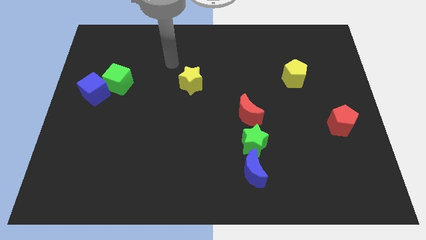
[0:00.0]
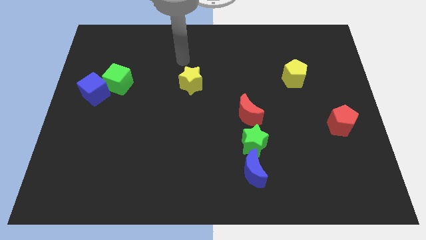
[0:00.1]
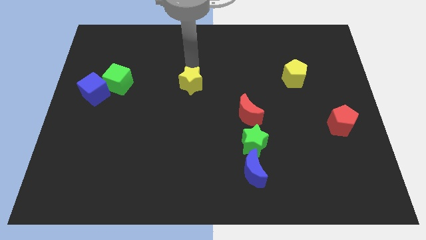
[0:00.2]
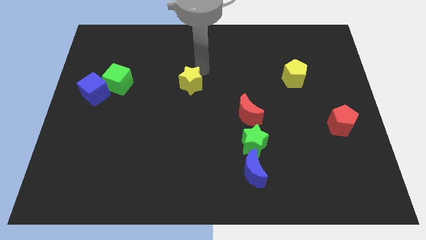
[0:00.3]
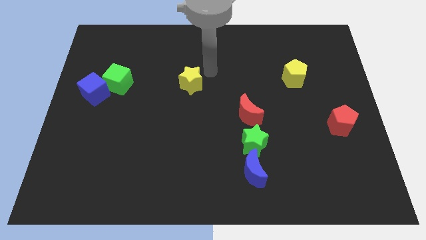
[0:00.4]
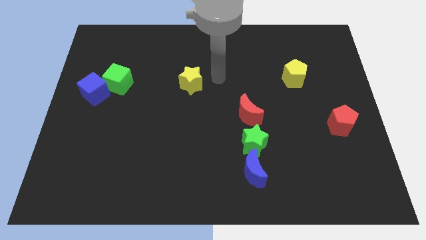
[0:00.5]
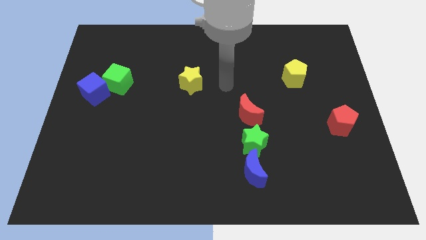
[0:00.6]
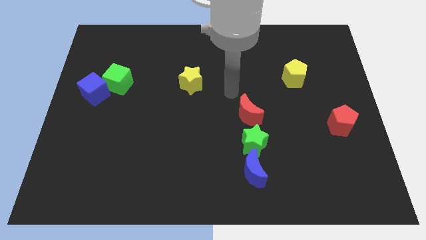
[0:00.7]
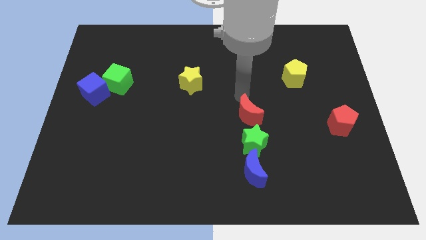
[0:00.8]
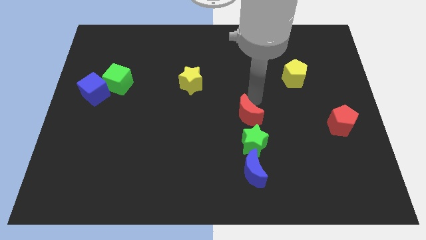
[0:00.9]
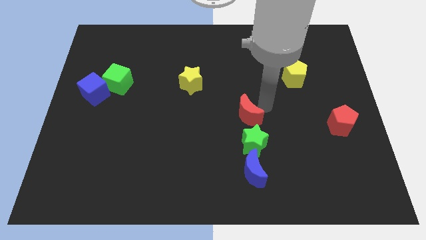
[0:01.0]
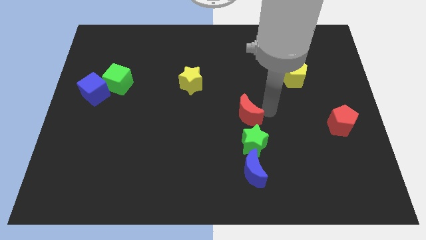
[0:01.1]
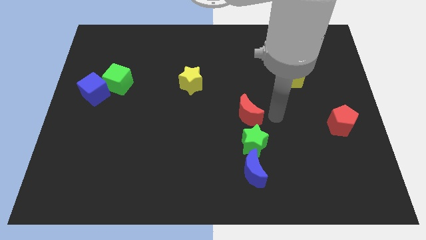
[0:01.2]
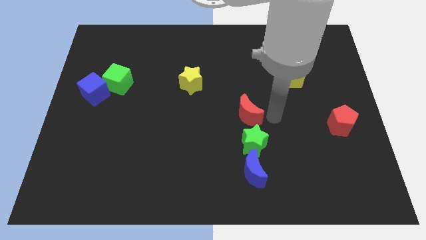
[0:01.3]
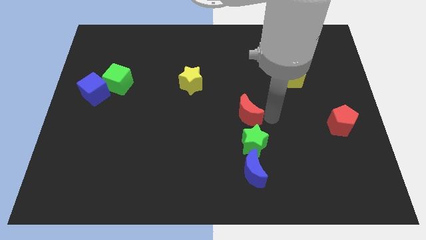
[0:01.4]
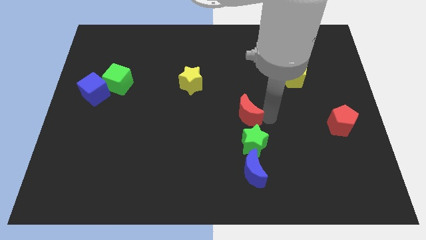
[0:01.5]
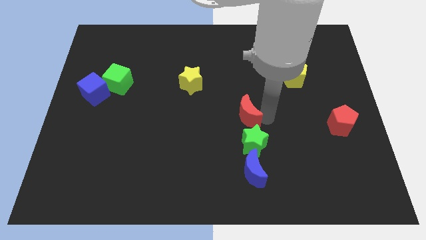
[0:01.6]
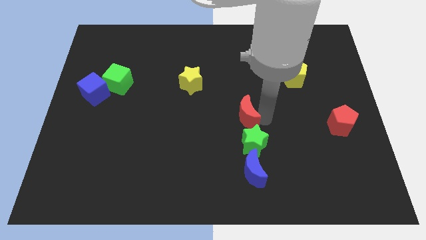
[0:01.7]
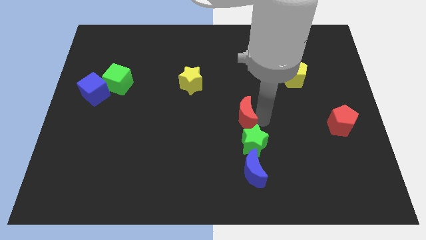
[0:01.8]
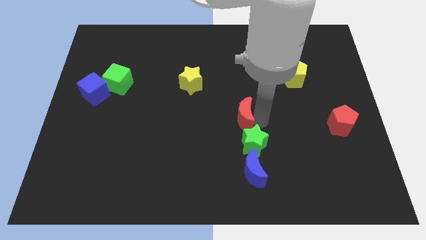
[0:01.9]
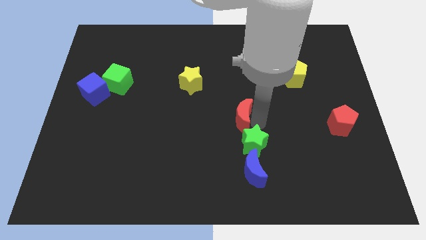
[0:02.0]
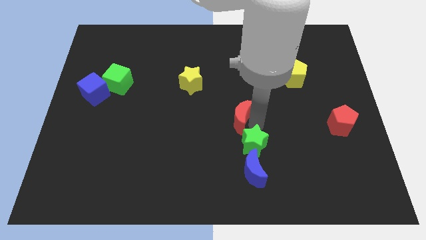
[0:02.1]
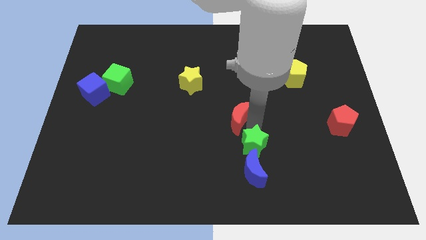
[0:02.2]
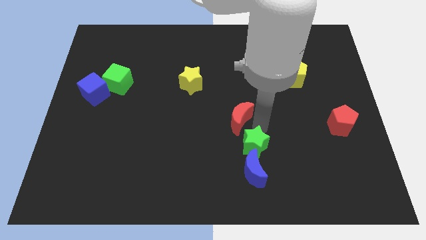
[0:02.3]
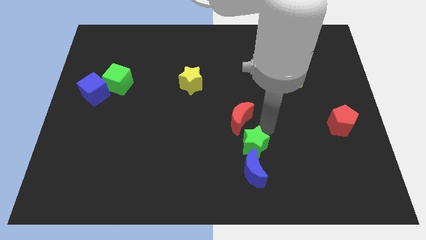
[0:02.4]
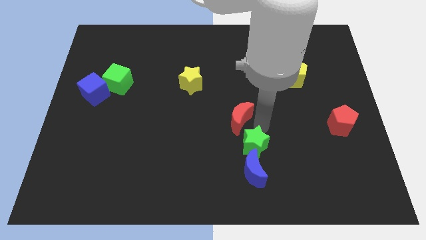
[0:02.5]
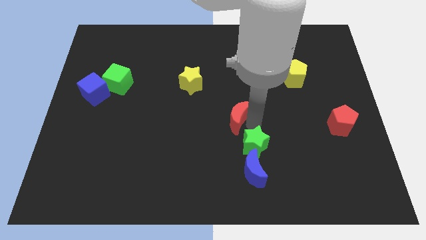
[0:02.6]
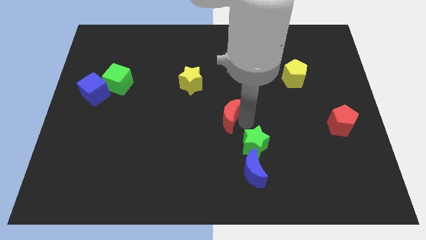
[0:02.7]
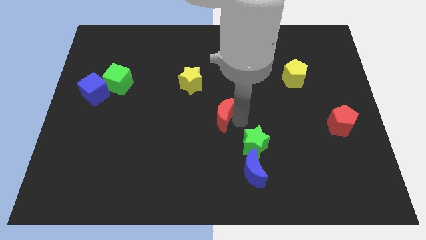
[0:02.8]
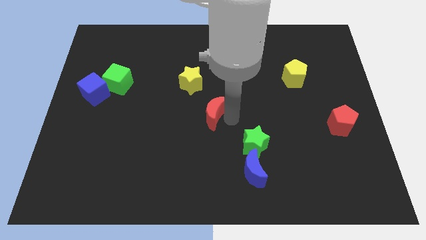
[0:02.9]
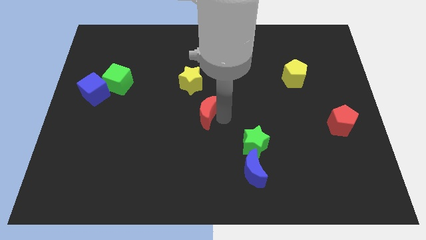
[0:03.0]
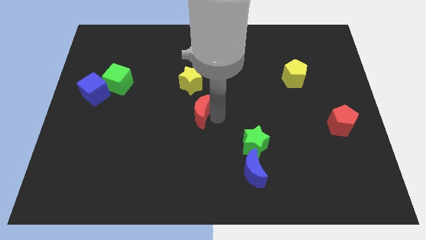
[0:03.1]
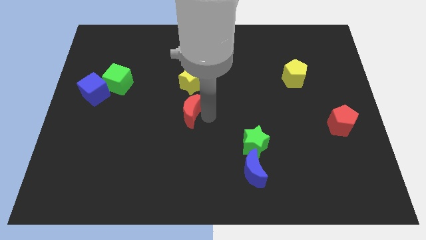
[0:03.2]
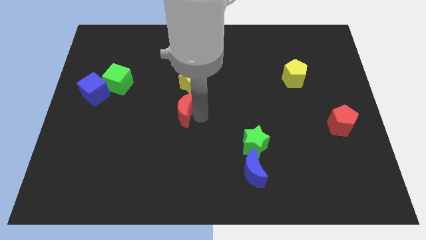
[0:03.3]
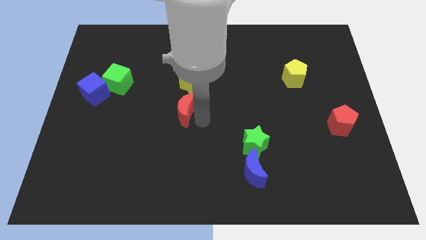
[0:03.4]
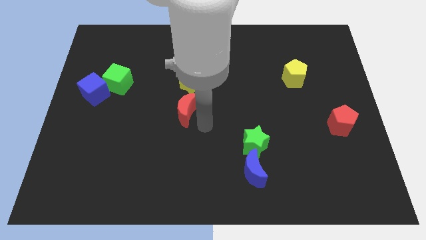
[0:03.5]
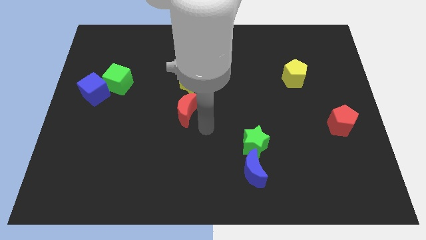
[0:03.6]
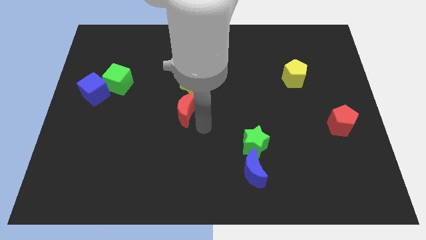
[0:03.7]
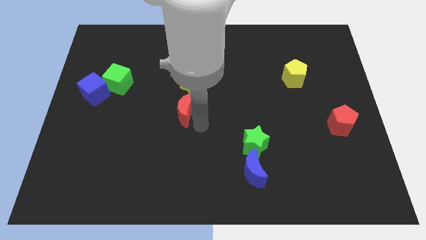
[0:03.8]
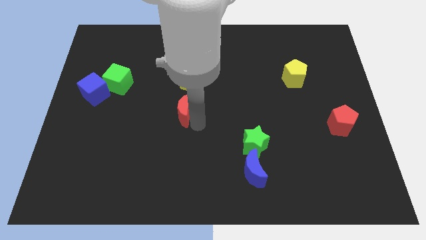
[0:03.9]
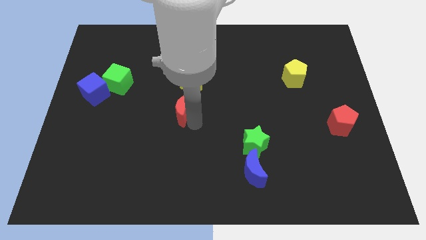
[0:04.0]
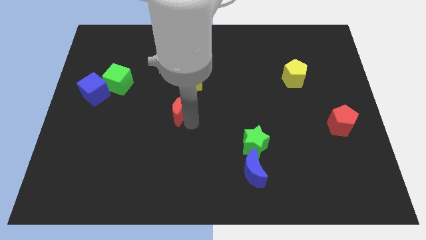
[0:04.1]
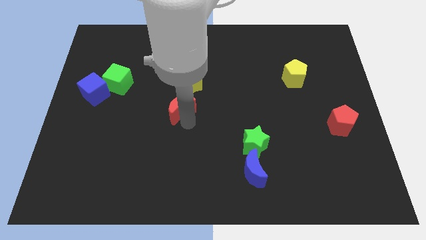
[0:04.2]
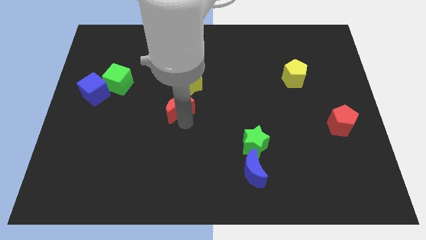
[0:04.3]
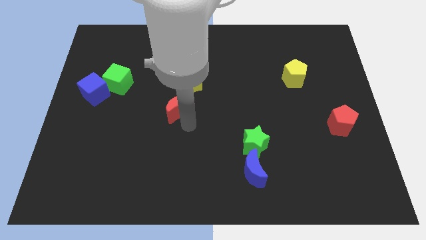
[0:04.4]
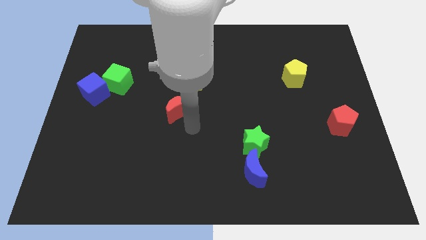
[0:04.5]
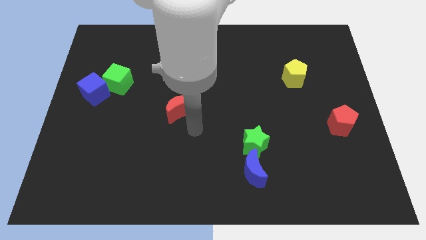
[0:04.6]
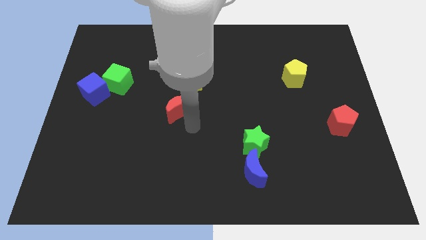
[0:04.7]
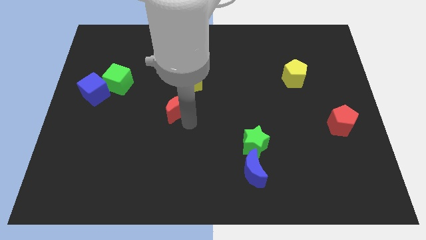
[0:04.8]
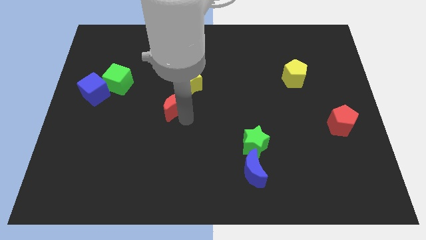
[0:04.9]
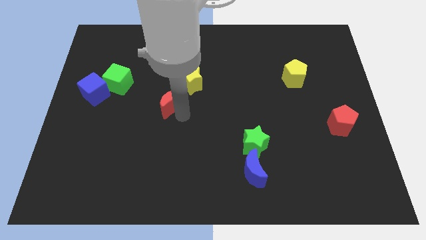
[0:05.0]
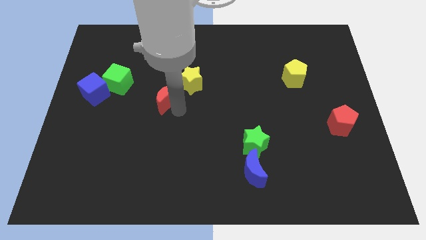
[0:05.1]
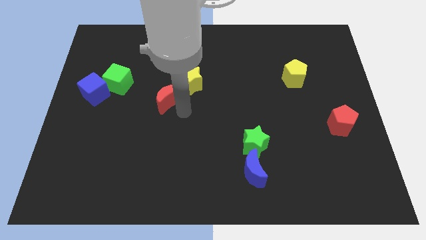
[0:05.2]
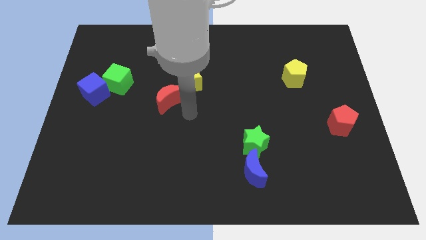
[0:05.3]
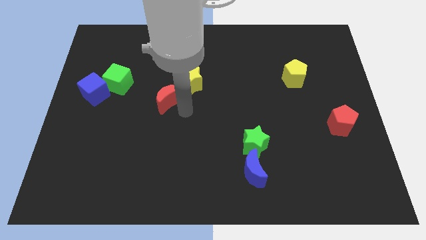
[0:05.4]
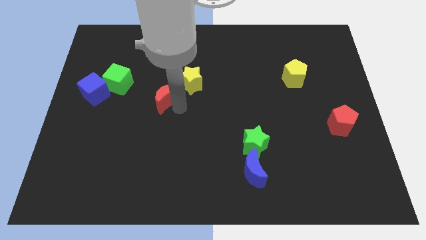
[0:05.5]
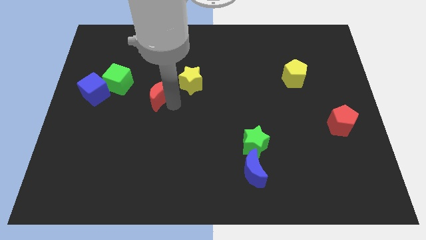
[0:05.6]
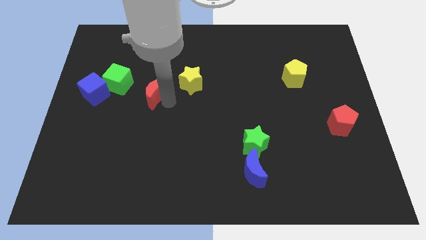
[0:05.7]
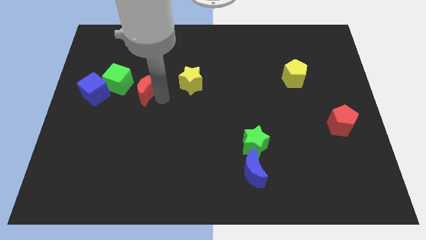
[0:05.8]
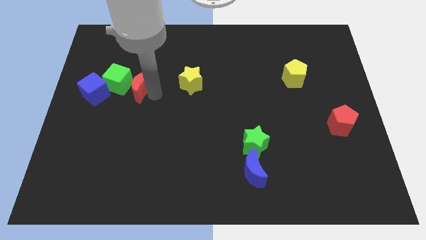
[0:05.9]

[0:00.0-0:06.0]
put the red moon close to the green cube

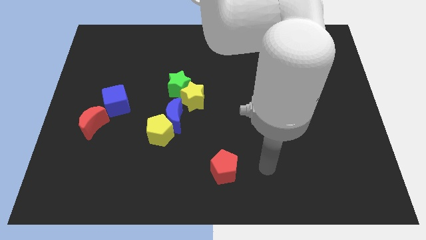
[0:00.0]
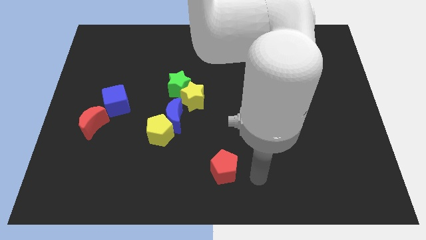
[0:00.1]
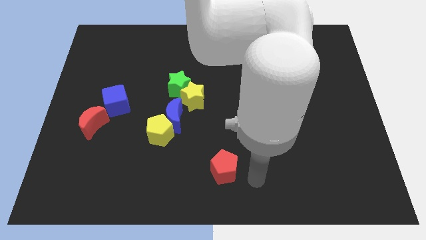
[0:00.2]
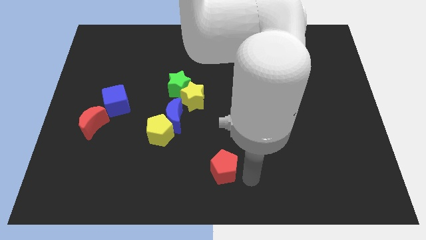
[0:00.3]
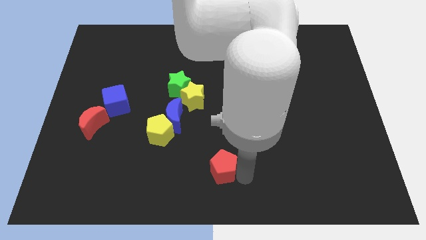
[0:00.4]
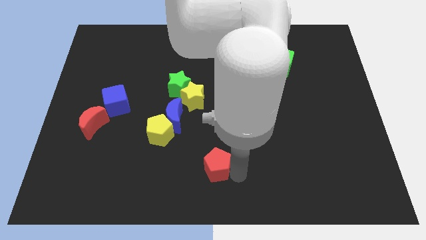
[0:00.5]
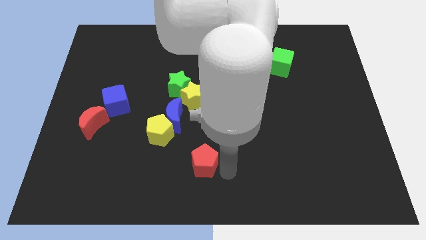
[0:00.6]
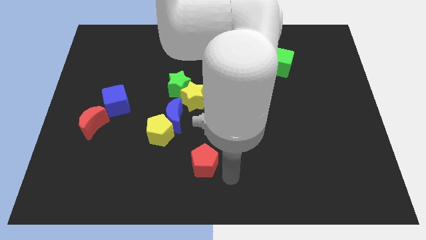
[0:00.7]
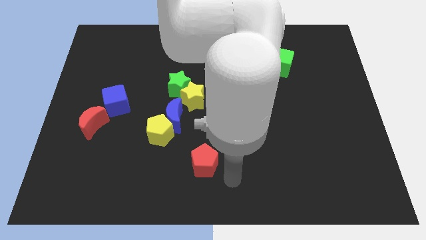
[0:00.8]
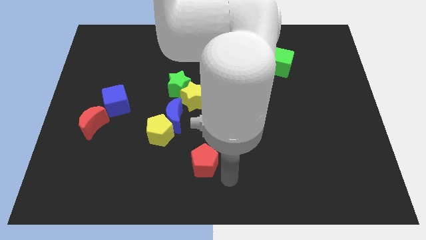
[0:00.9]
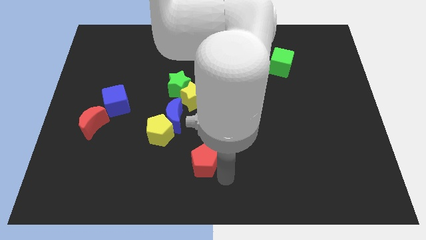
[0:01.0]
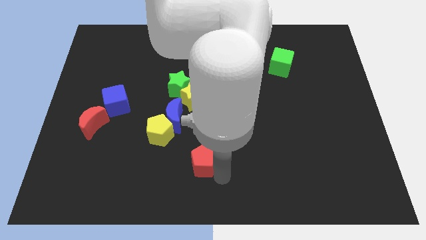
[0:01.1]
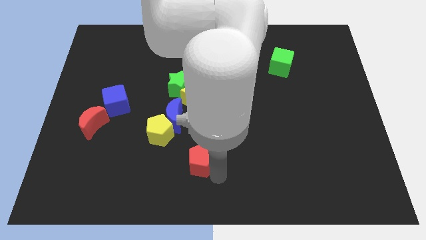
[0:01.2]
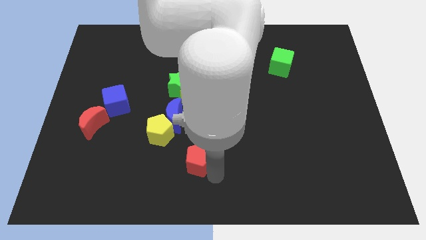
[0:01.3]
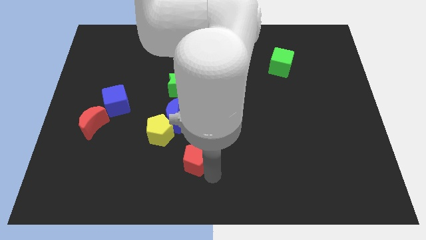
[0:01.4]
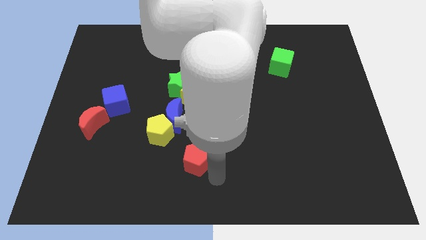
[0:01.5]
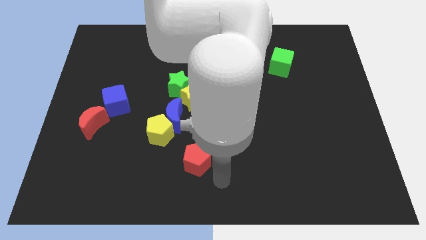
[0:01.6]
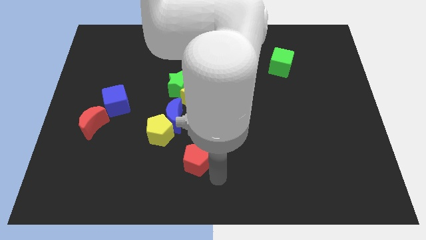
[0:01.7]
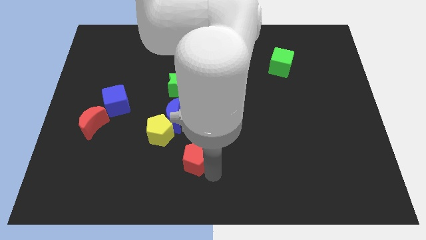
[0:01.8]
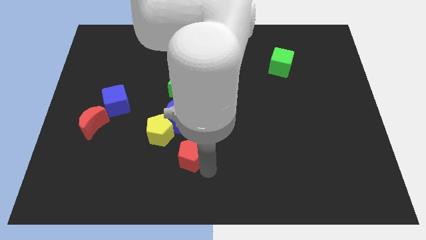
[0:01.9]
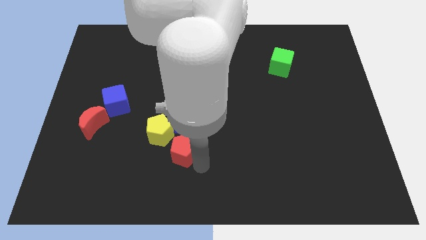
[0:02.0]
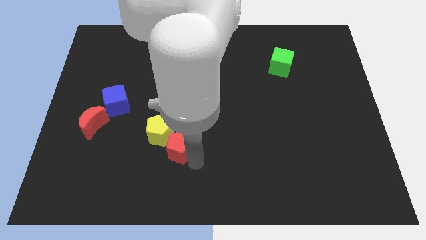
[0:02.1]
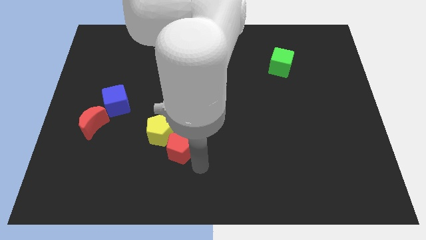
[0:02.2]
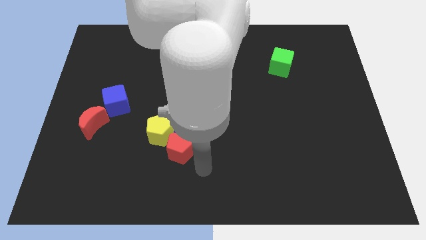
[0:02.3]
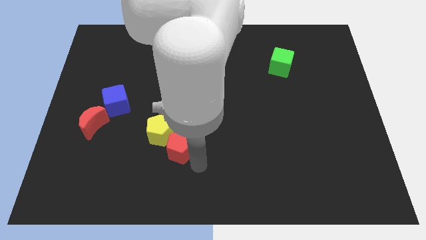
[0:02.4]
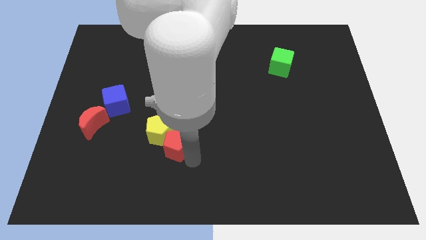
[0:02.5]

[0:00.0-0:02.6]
move the red pentagon to the yellow pentagon
